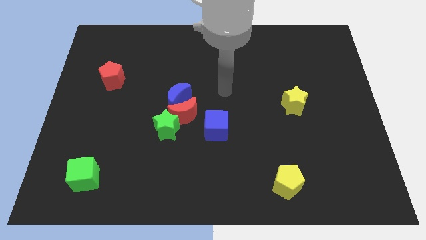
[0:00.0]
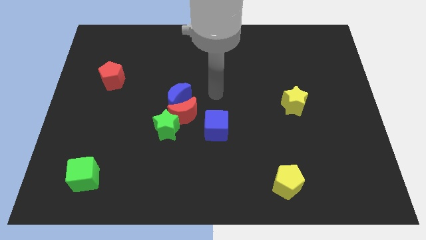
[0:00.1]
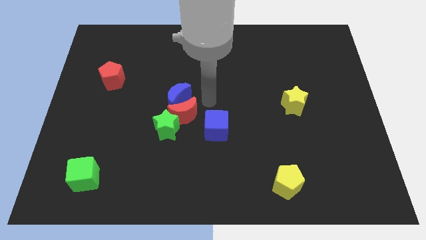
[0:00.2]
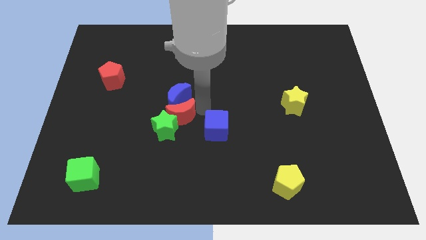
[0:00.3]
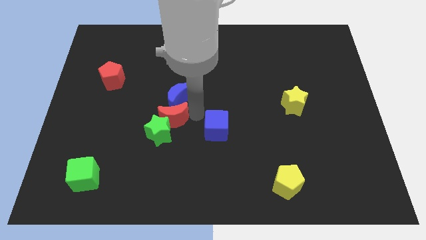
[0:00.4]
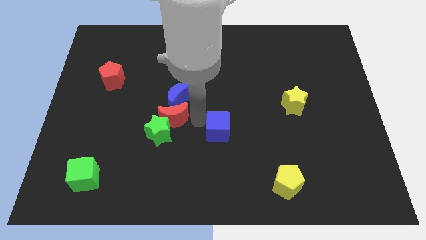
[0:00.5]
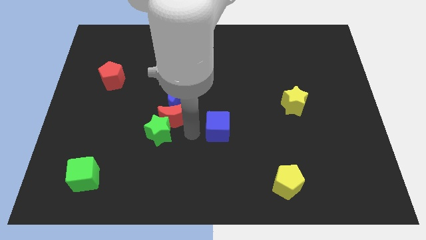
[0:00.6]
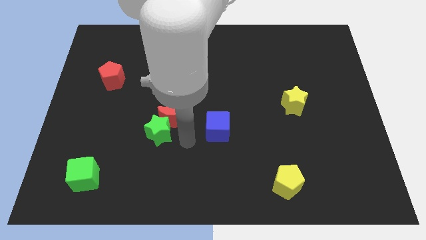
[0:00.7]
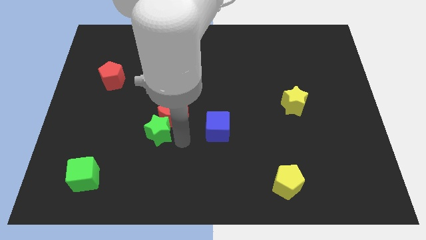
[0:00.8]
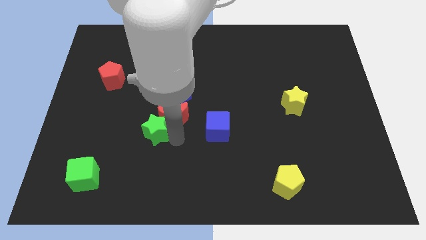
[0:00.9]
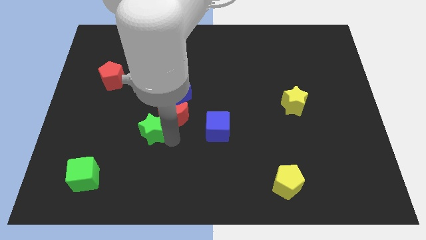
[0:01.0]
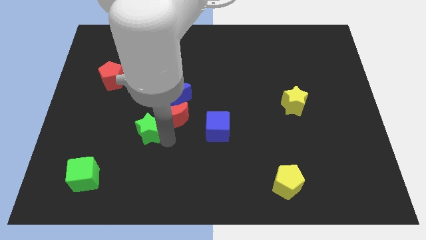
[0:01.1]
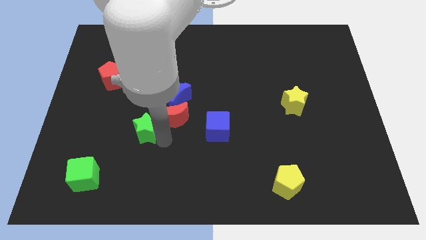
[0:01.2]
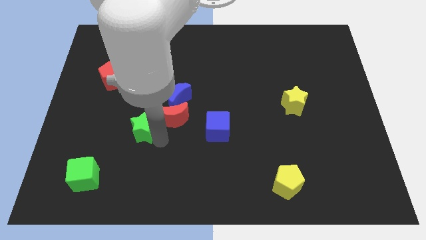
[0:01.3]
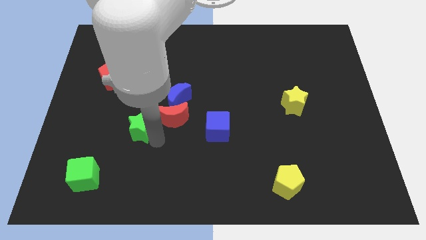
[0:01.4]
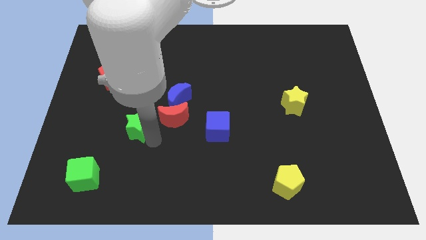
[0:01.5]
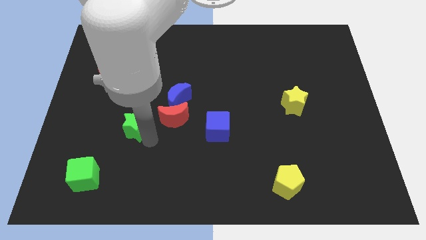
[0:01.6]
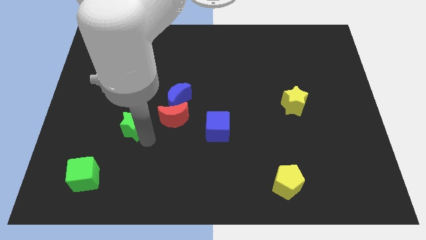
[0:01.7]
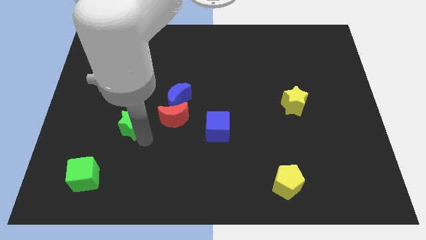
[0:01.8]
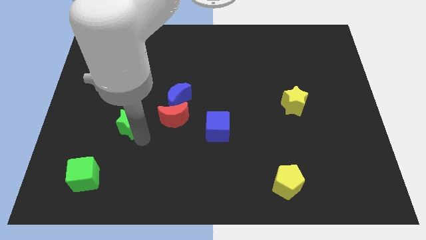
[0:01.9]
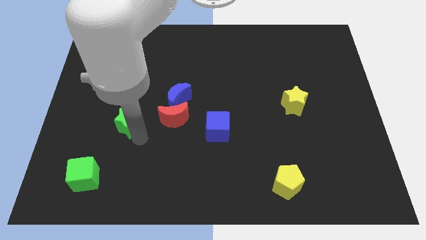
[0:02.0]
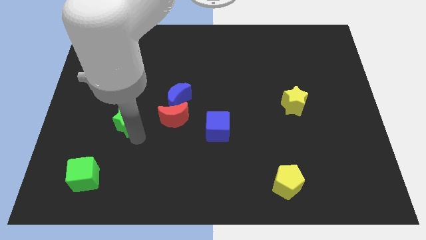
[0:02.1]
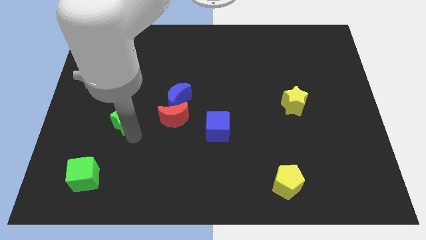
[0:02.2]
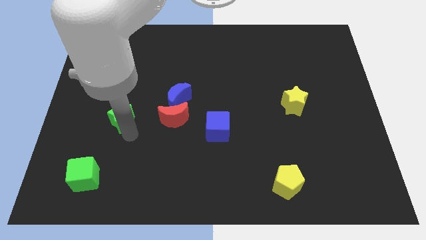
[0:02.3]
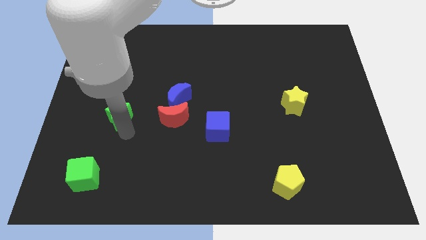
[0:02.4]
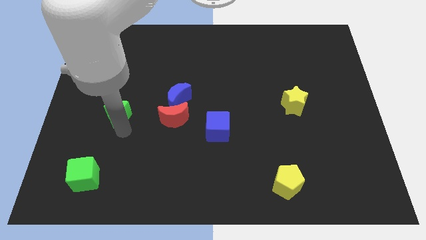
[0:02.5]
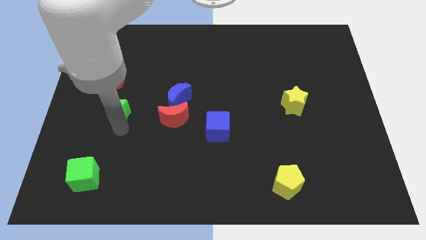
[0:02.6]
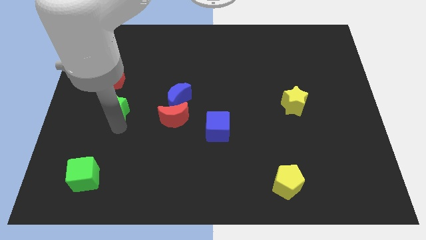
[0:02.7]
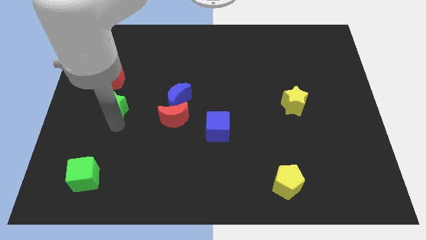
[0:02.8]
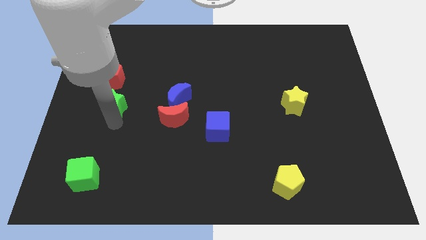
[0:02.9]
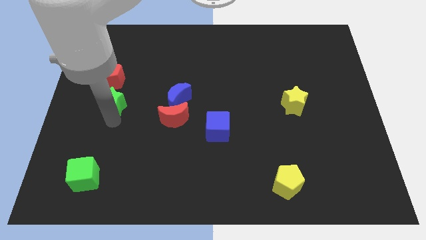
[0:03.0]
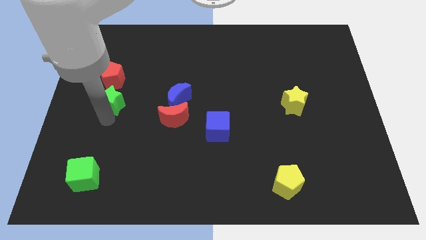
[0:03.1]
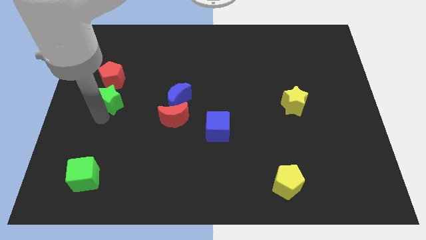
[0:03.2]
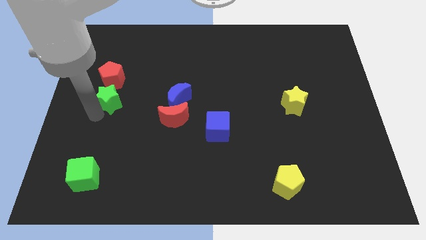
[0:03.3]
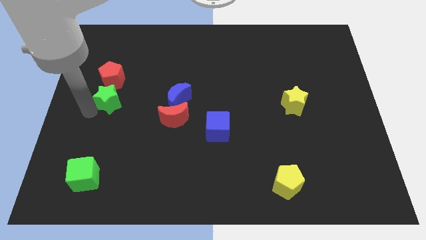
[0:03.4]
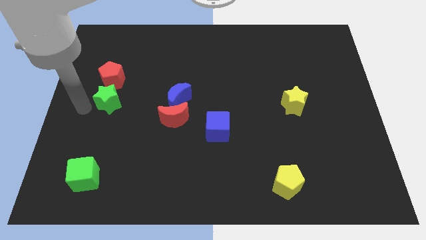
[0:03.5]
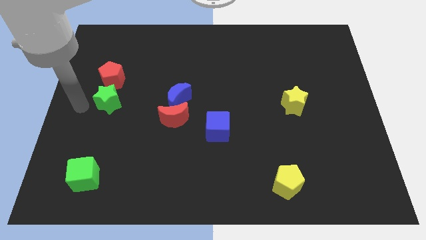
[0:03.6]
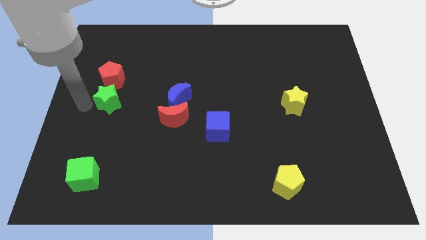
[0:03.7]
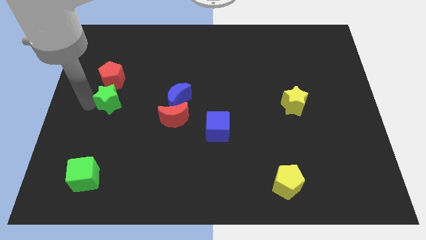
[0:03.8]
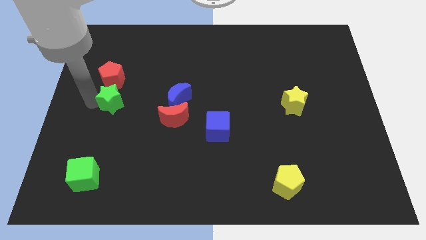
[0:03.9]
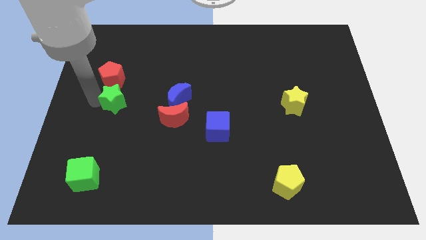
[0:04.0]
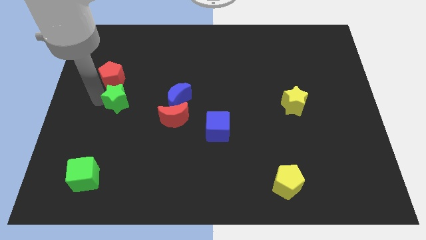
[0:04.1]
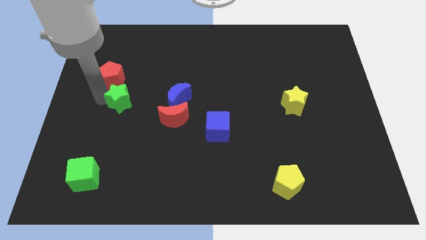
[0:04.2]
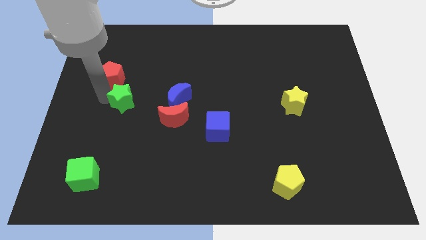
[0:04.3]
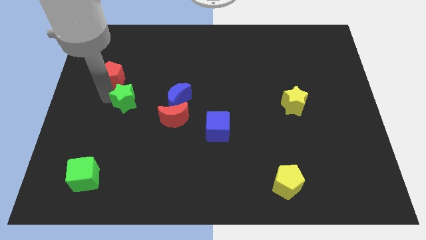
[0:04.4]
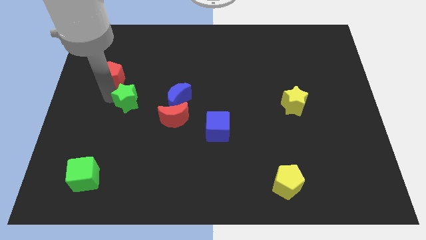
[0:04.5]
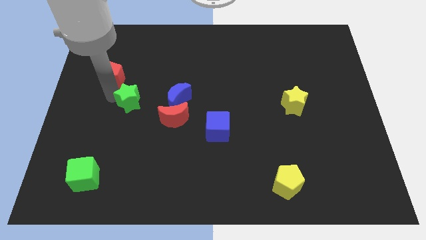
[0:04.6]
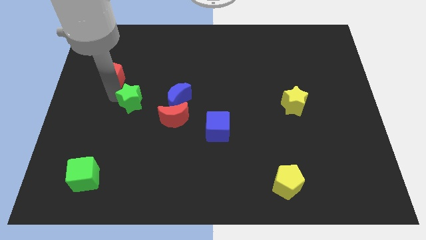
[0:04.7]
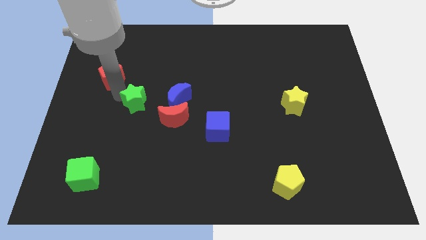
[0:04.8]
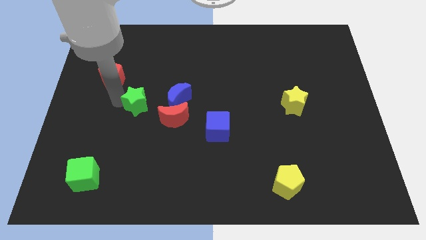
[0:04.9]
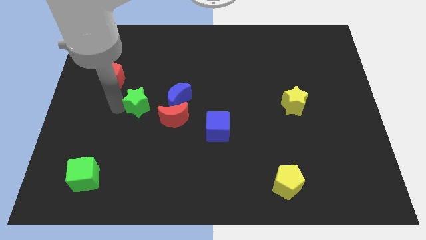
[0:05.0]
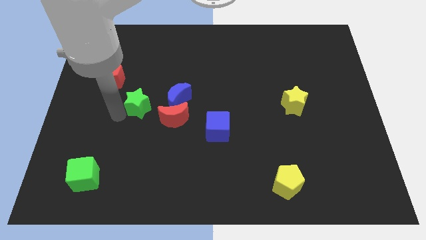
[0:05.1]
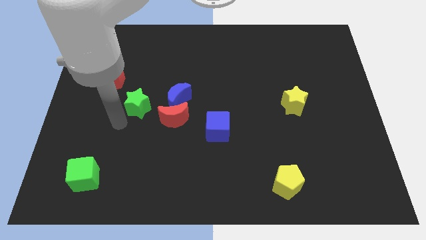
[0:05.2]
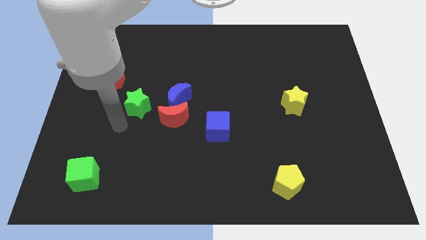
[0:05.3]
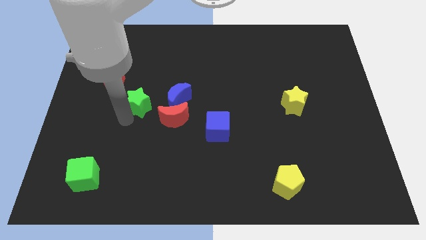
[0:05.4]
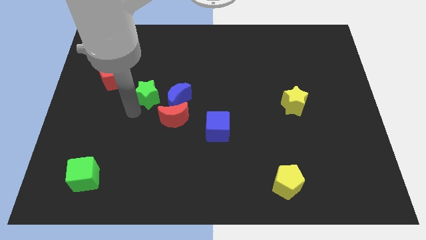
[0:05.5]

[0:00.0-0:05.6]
slightly move the green star up

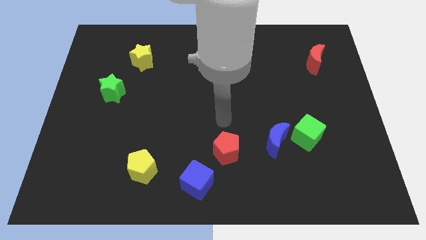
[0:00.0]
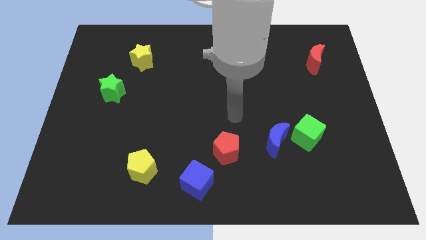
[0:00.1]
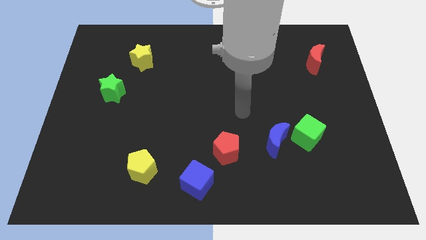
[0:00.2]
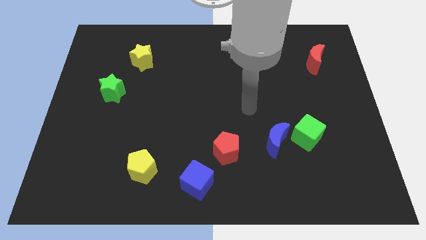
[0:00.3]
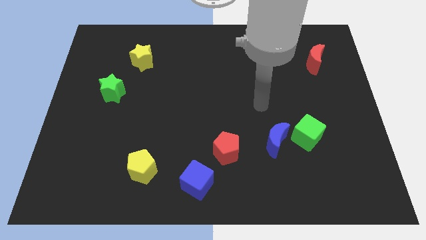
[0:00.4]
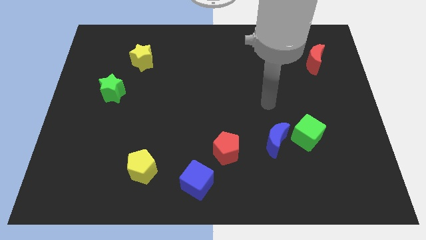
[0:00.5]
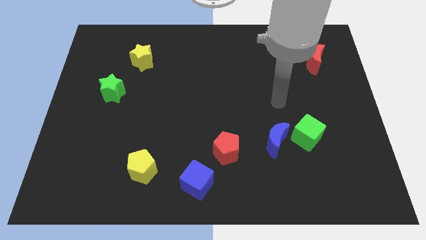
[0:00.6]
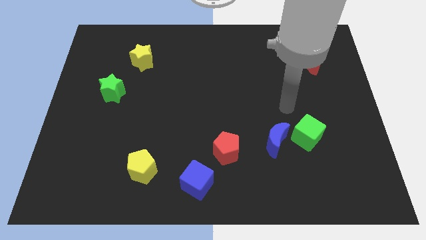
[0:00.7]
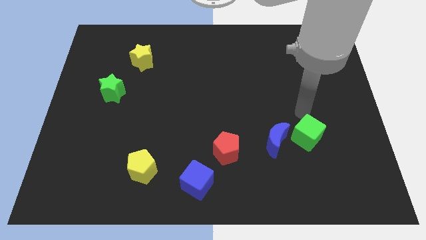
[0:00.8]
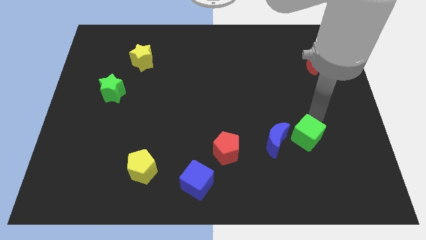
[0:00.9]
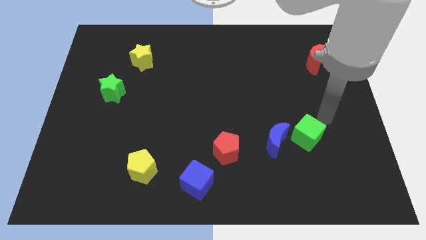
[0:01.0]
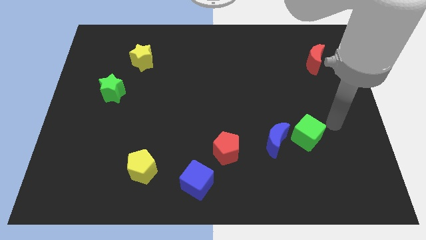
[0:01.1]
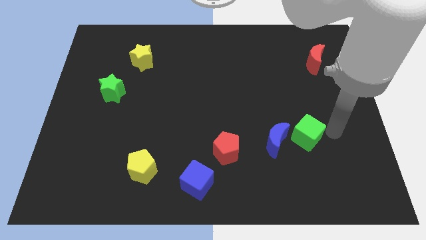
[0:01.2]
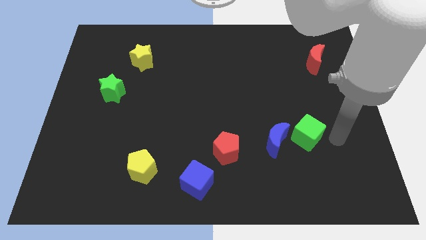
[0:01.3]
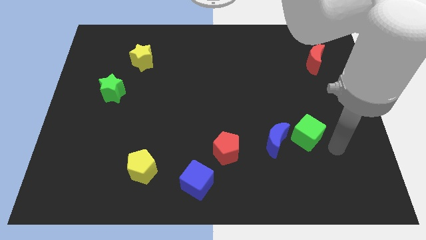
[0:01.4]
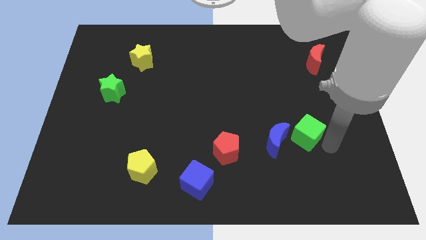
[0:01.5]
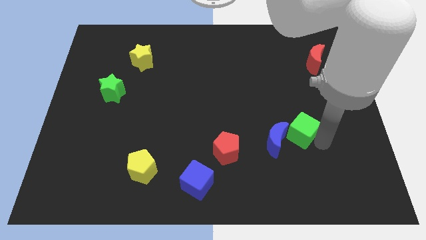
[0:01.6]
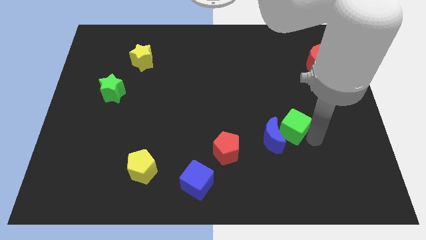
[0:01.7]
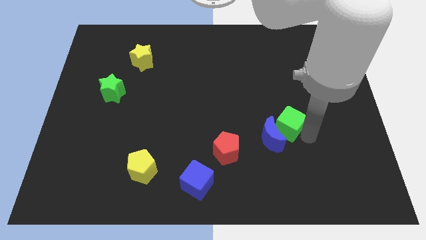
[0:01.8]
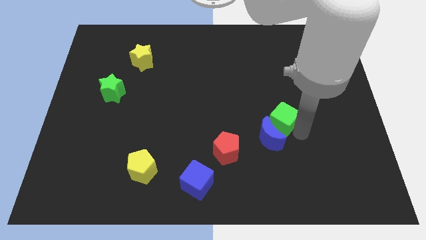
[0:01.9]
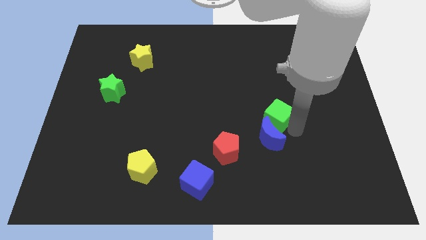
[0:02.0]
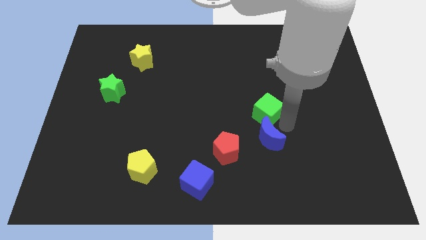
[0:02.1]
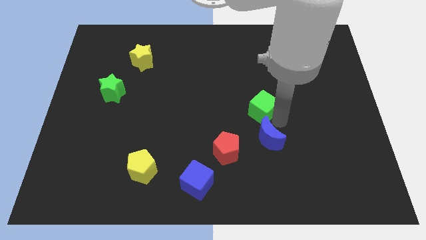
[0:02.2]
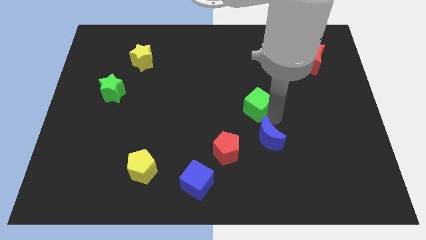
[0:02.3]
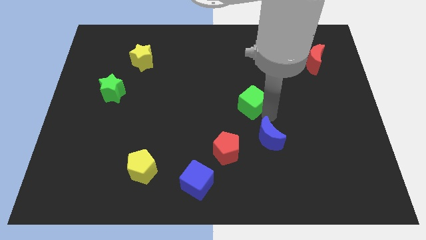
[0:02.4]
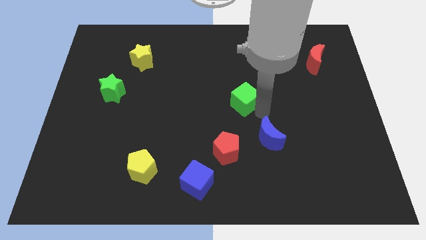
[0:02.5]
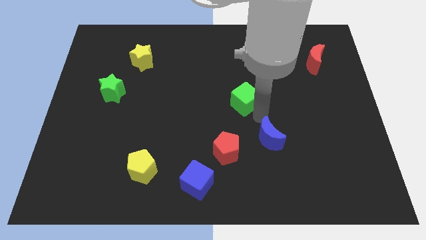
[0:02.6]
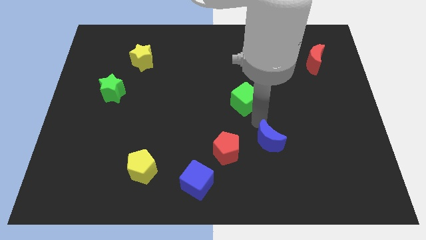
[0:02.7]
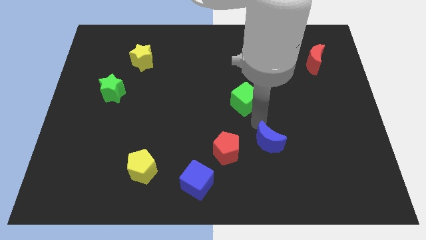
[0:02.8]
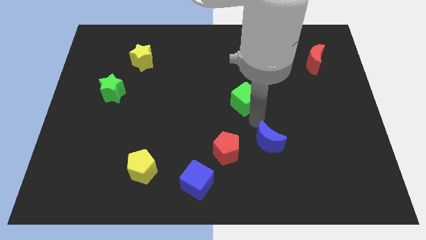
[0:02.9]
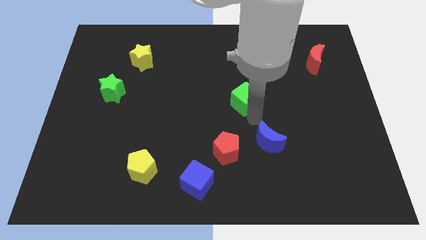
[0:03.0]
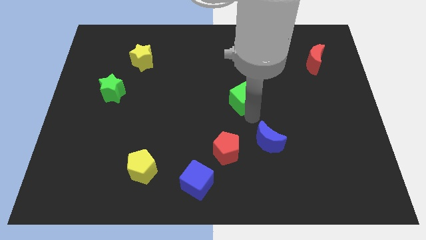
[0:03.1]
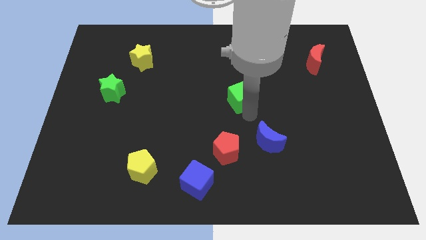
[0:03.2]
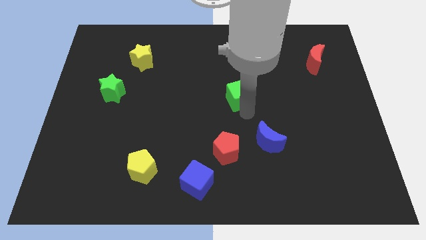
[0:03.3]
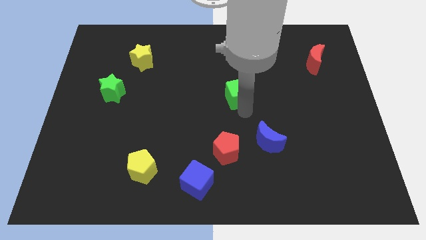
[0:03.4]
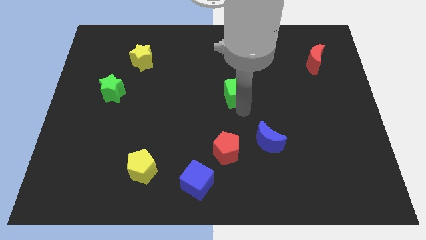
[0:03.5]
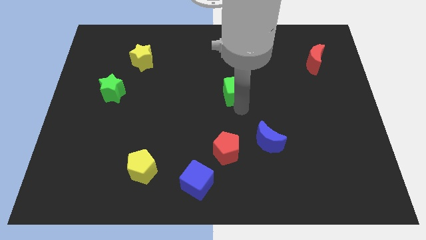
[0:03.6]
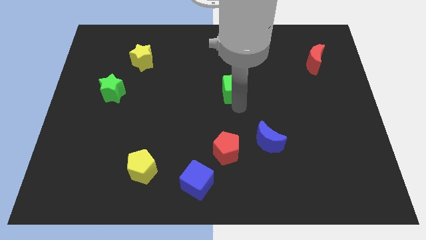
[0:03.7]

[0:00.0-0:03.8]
move the green cube upwards and then left
